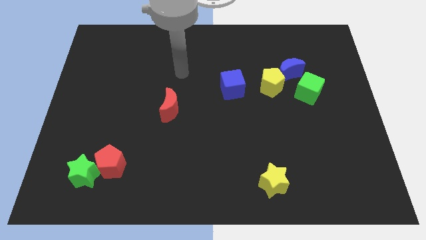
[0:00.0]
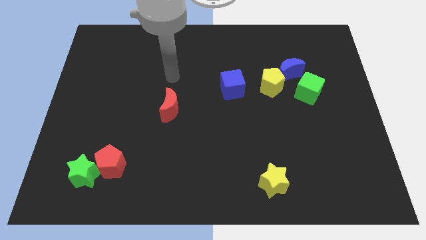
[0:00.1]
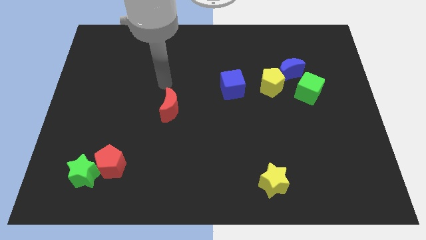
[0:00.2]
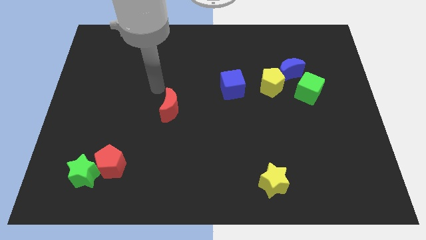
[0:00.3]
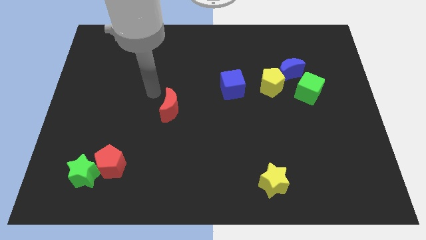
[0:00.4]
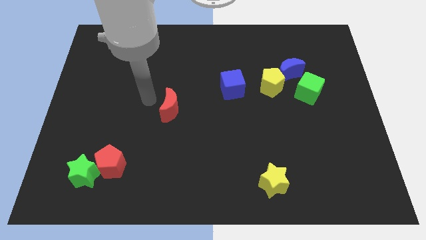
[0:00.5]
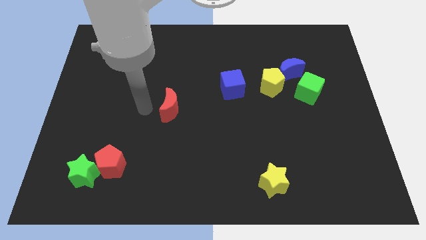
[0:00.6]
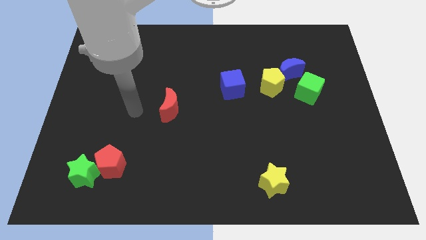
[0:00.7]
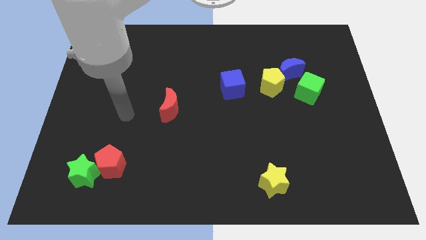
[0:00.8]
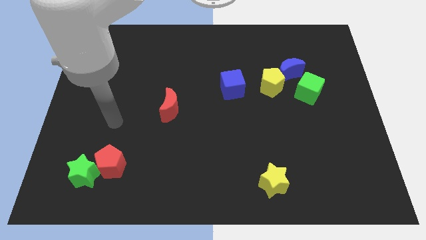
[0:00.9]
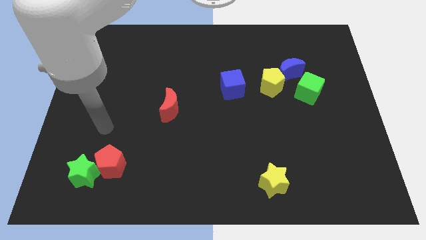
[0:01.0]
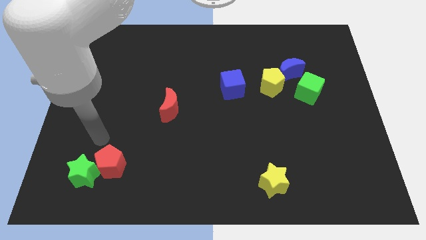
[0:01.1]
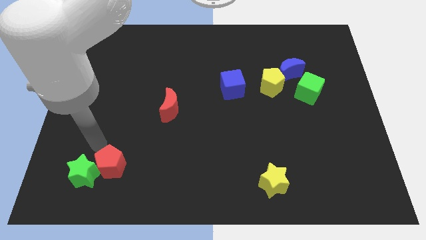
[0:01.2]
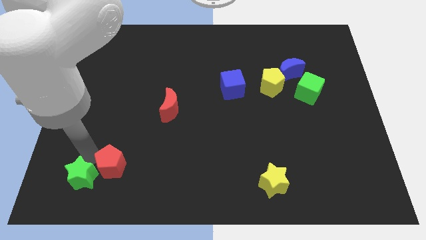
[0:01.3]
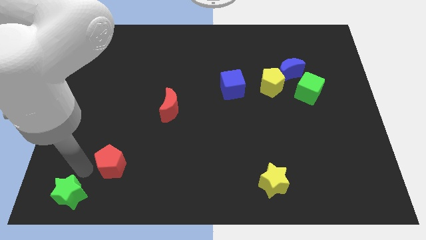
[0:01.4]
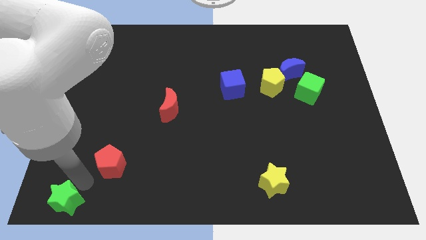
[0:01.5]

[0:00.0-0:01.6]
pull the red pentagon apart from the green star
